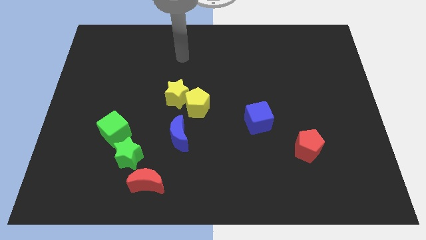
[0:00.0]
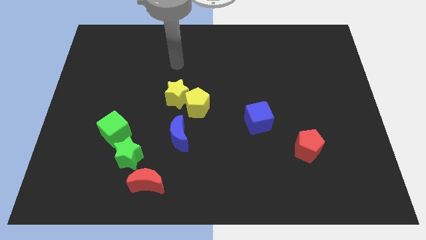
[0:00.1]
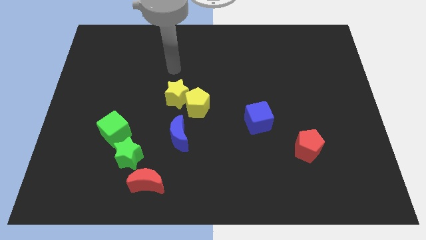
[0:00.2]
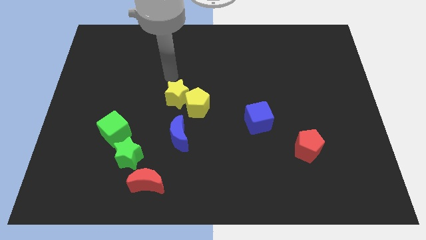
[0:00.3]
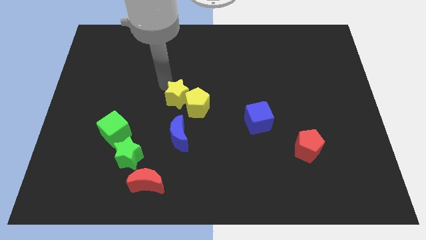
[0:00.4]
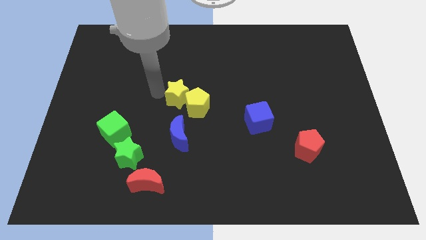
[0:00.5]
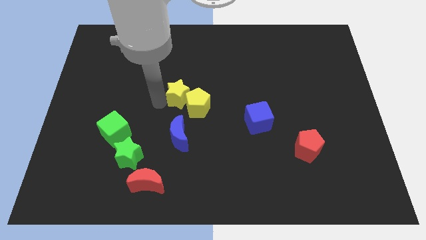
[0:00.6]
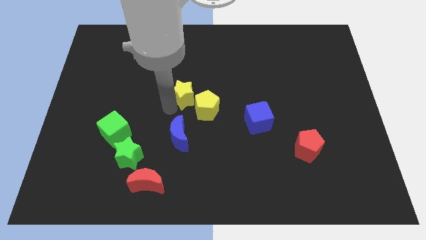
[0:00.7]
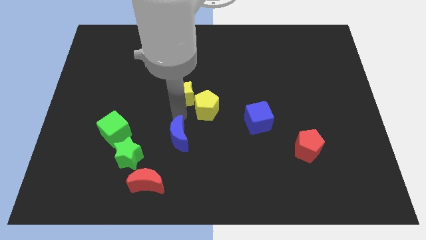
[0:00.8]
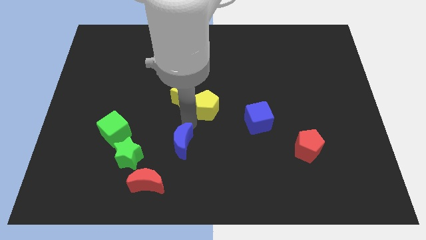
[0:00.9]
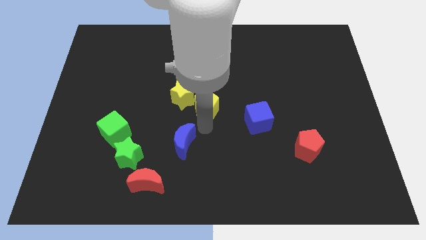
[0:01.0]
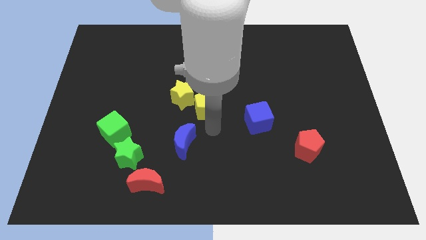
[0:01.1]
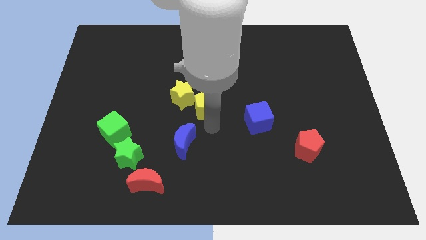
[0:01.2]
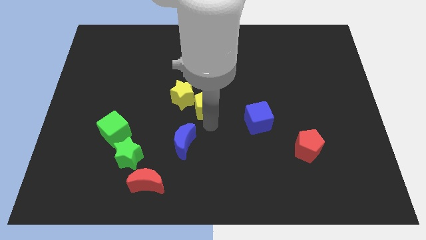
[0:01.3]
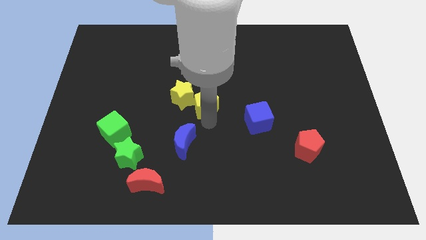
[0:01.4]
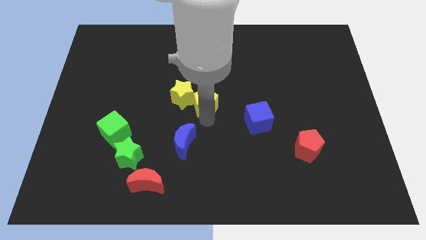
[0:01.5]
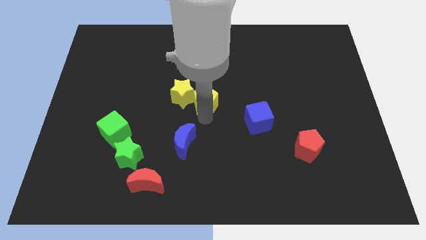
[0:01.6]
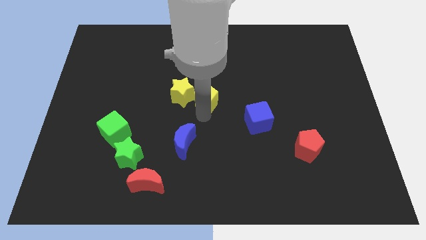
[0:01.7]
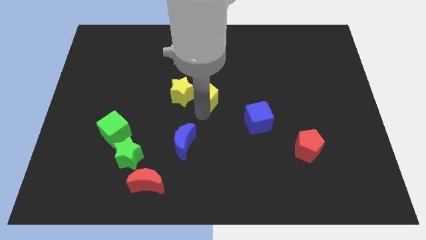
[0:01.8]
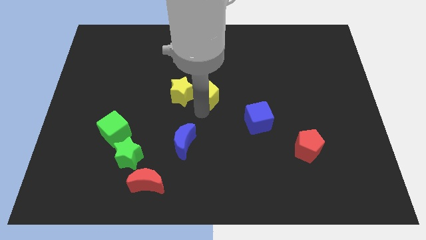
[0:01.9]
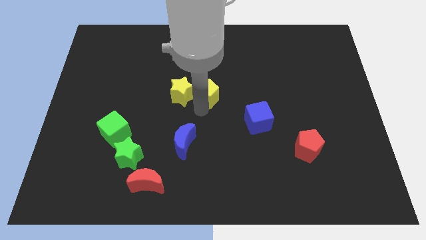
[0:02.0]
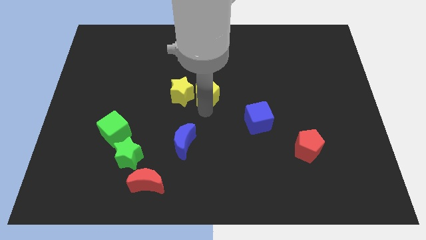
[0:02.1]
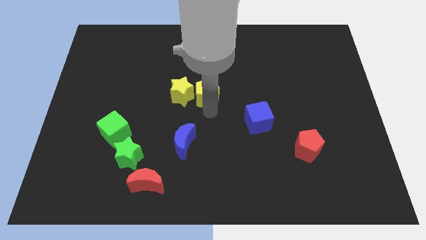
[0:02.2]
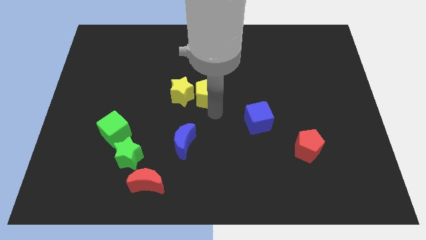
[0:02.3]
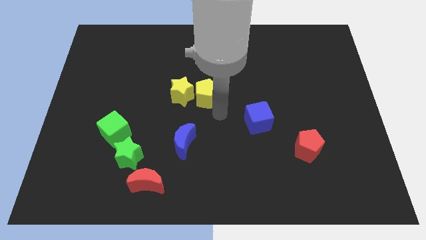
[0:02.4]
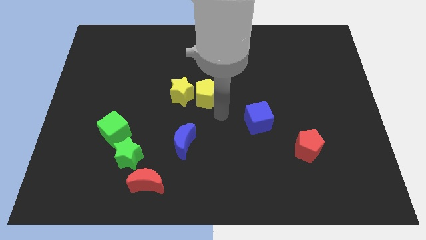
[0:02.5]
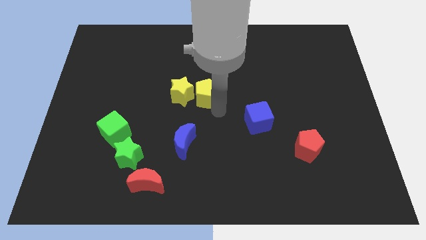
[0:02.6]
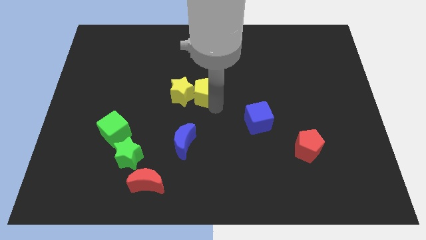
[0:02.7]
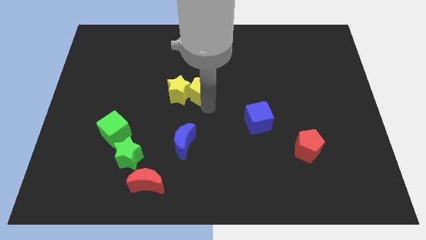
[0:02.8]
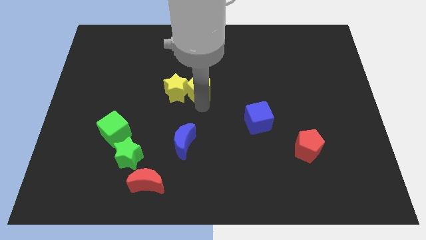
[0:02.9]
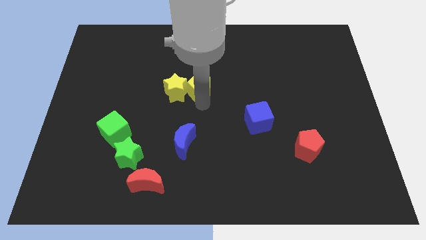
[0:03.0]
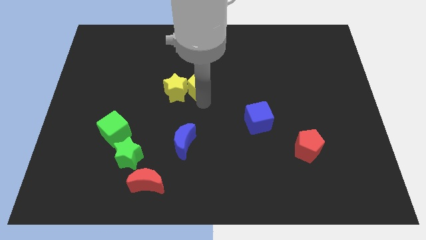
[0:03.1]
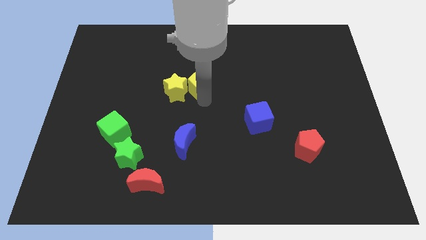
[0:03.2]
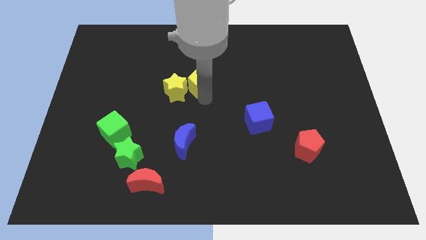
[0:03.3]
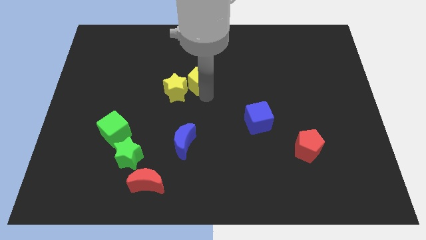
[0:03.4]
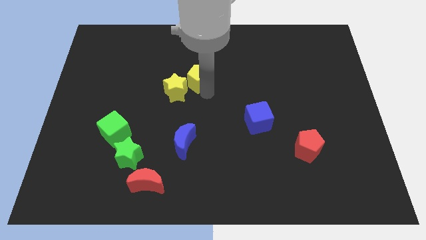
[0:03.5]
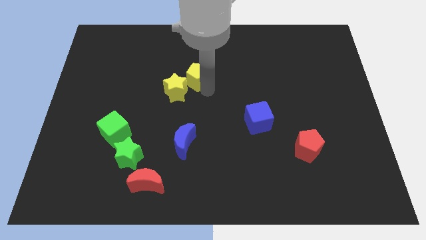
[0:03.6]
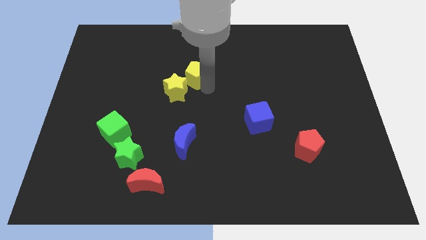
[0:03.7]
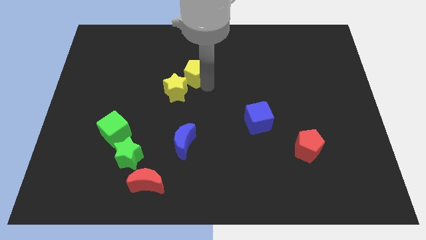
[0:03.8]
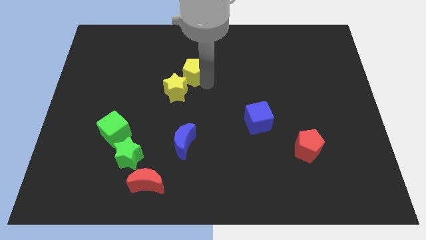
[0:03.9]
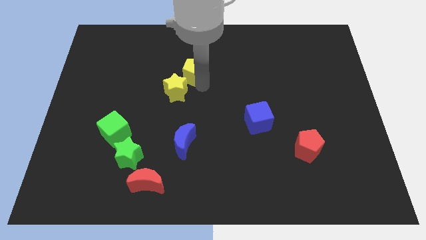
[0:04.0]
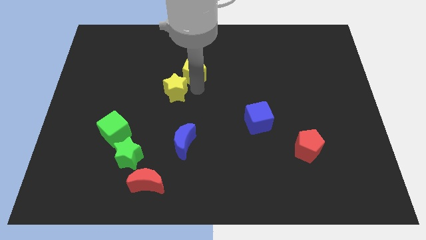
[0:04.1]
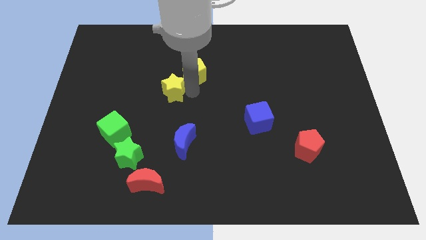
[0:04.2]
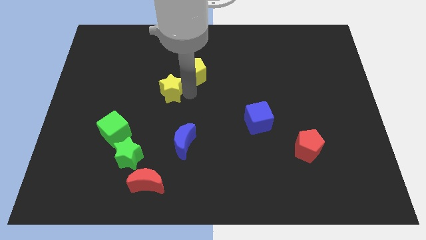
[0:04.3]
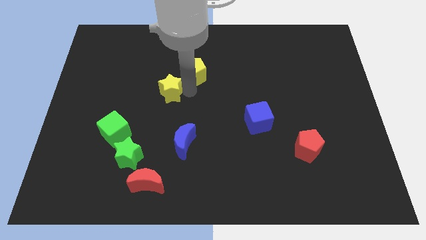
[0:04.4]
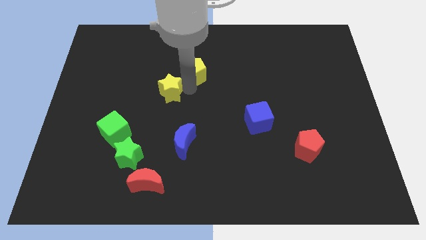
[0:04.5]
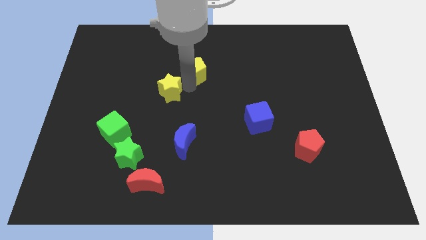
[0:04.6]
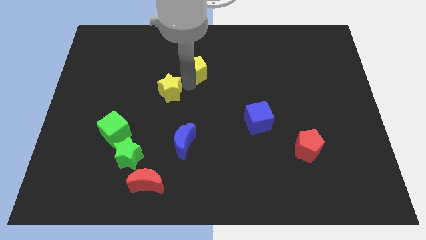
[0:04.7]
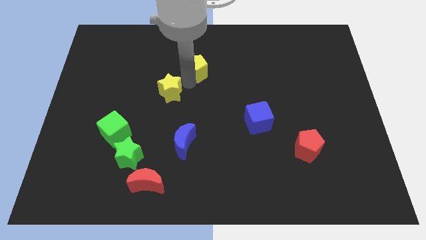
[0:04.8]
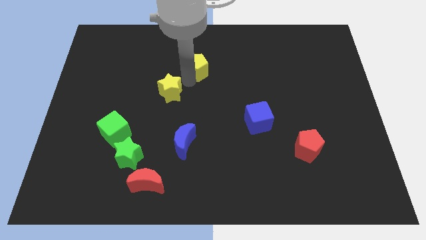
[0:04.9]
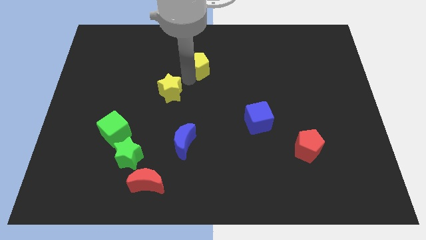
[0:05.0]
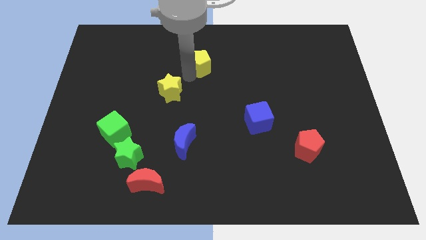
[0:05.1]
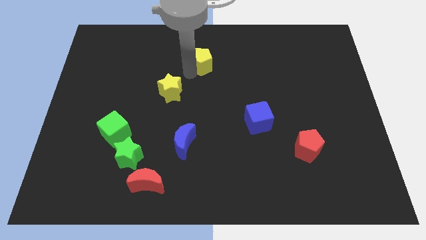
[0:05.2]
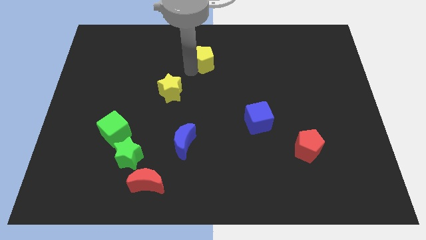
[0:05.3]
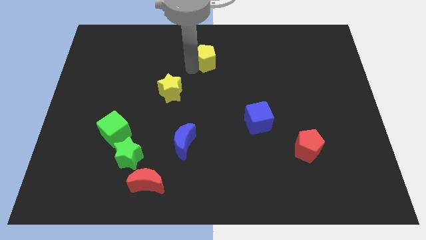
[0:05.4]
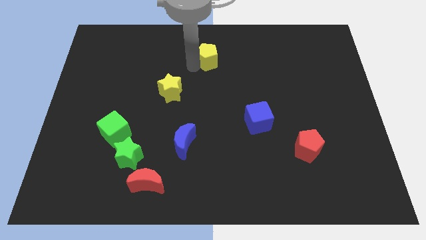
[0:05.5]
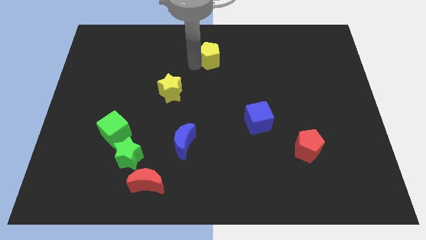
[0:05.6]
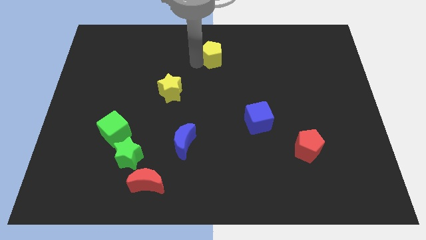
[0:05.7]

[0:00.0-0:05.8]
put the yellow pentagon to the top side

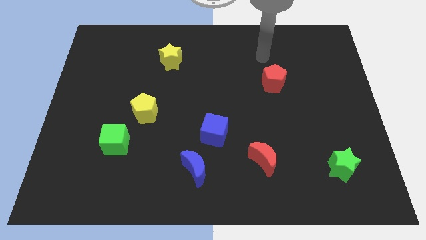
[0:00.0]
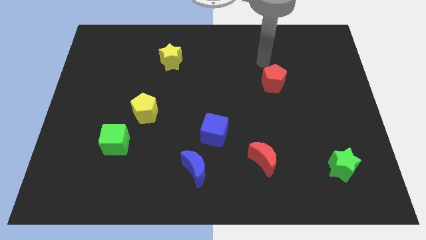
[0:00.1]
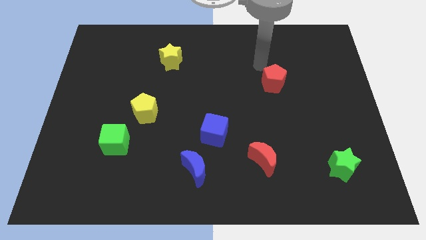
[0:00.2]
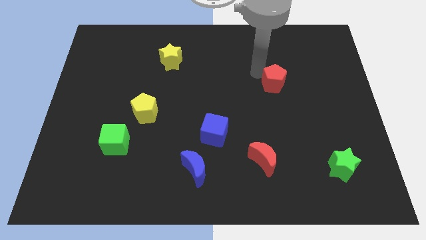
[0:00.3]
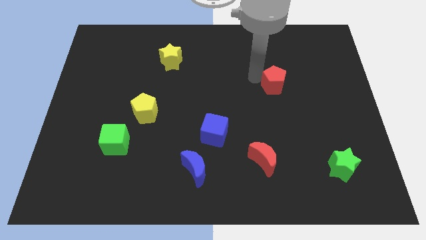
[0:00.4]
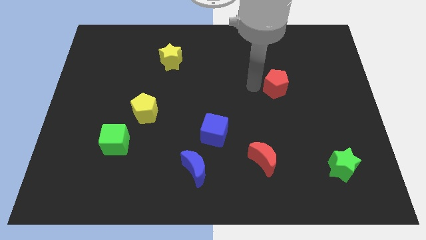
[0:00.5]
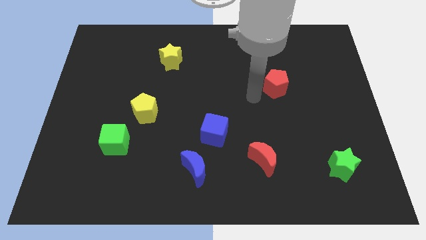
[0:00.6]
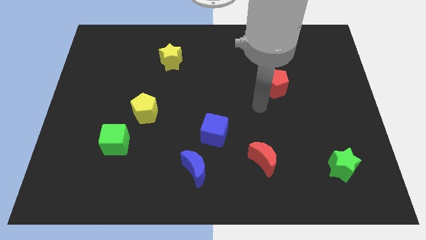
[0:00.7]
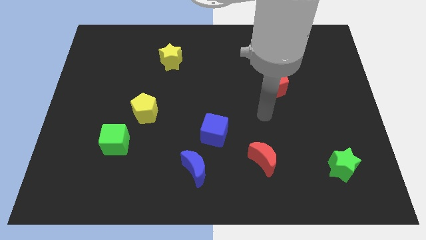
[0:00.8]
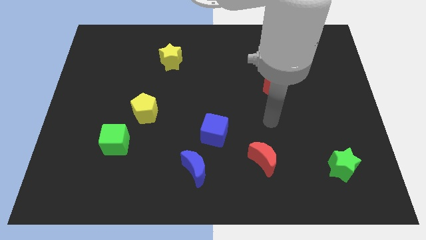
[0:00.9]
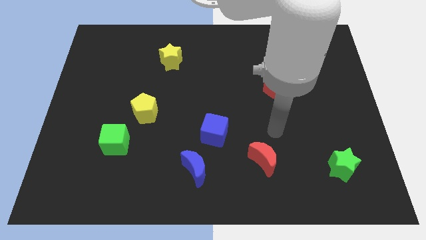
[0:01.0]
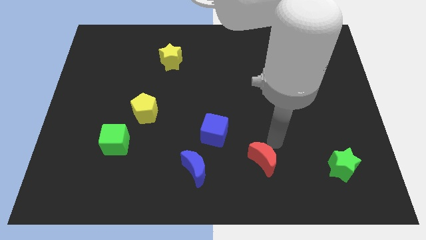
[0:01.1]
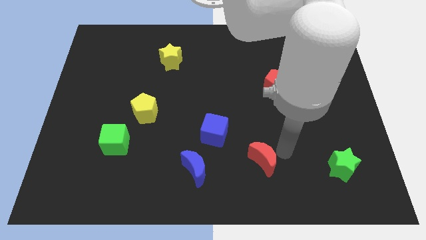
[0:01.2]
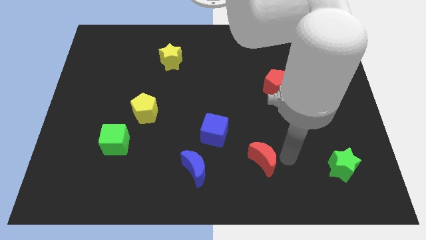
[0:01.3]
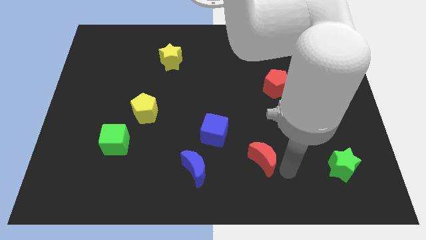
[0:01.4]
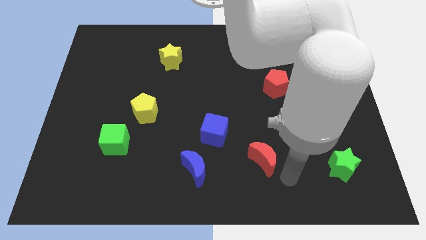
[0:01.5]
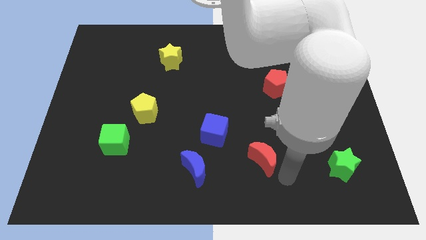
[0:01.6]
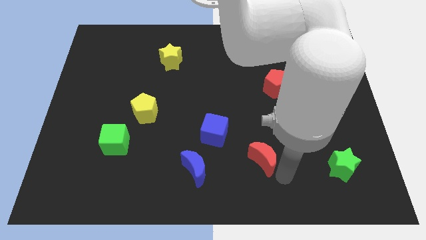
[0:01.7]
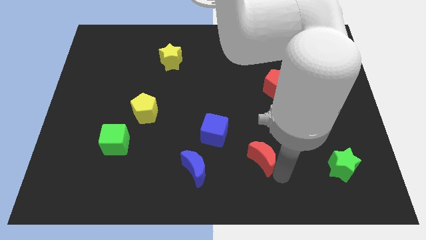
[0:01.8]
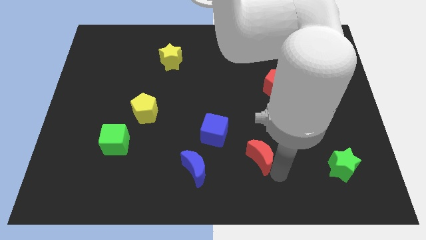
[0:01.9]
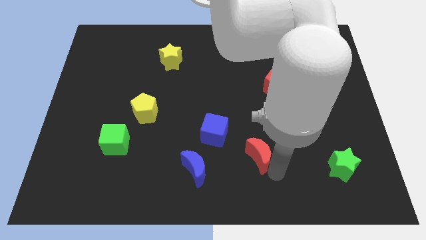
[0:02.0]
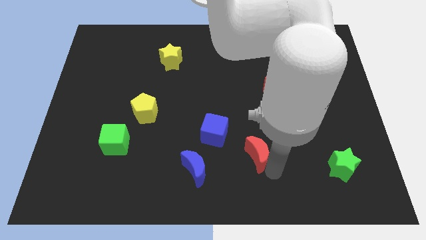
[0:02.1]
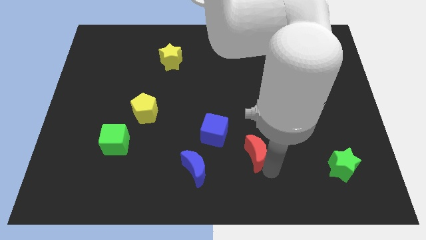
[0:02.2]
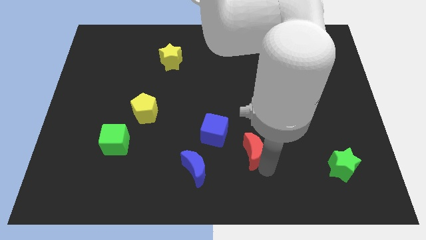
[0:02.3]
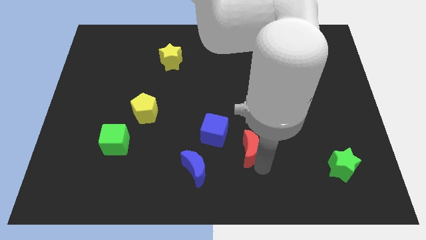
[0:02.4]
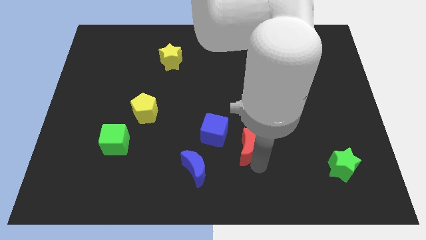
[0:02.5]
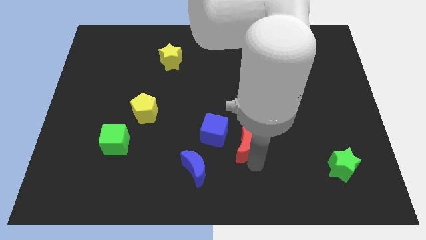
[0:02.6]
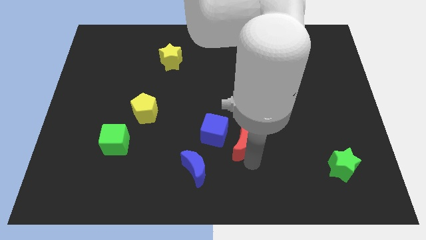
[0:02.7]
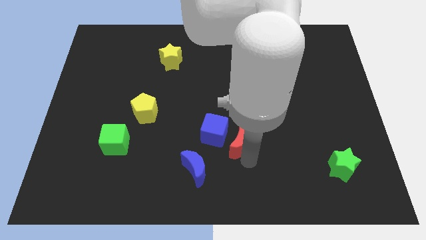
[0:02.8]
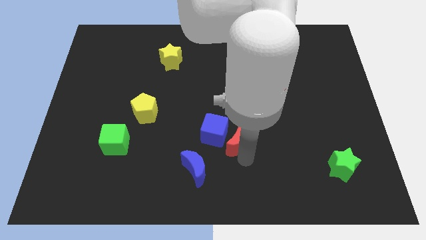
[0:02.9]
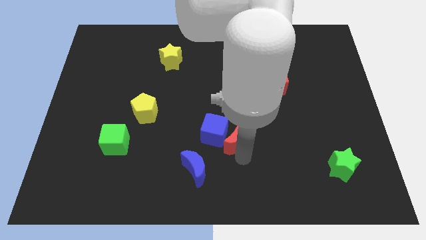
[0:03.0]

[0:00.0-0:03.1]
push the red moon to the center
